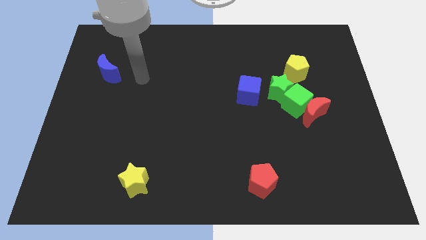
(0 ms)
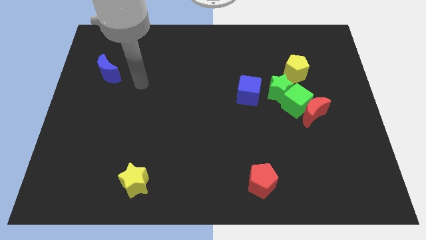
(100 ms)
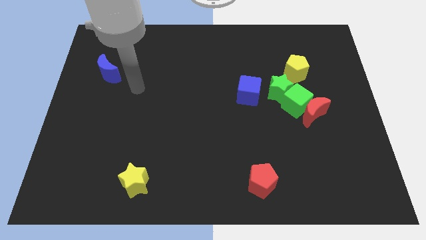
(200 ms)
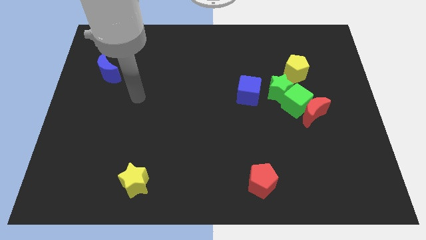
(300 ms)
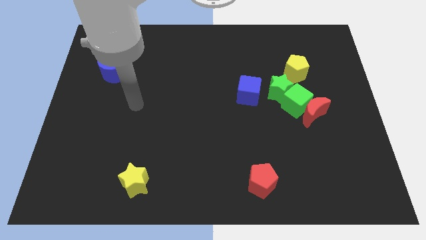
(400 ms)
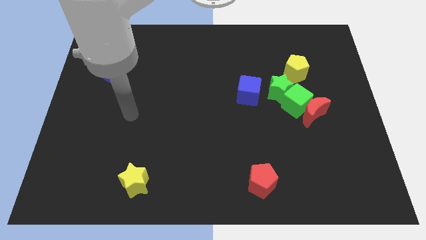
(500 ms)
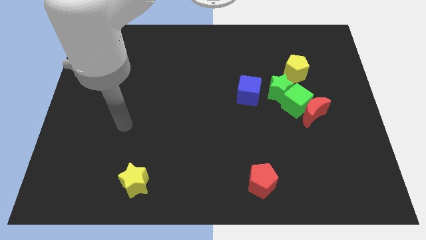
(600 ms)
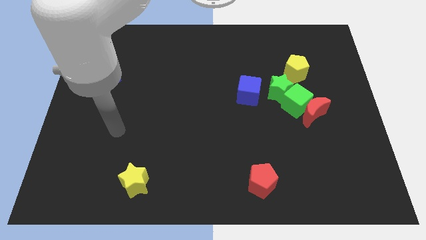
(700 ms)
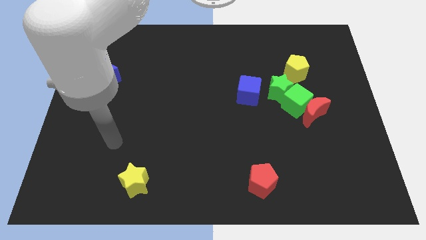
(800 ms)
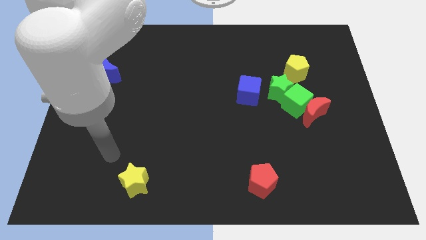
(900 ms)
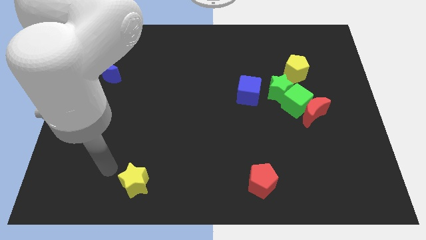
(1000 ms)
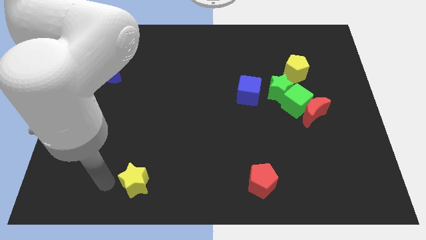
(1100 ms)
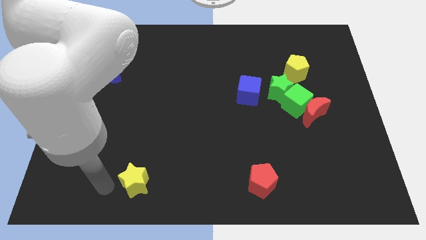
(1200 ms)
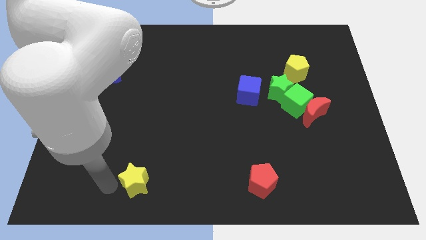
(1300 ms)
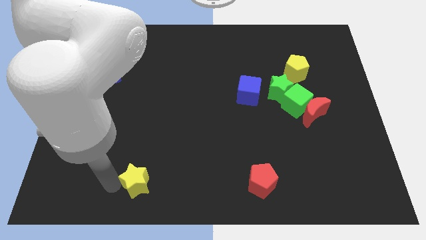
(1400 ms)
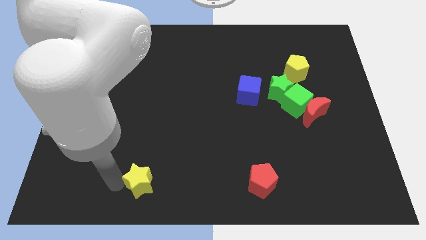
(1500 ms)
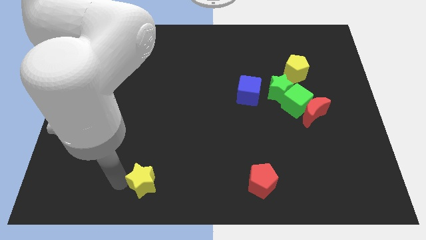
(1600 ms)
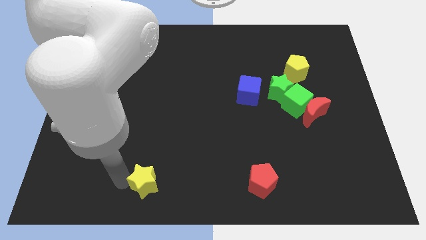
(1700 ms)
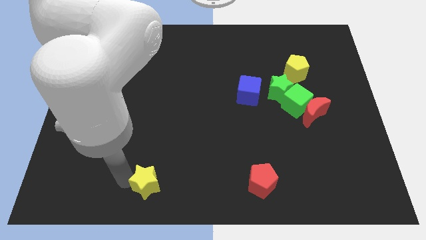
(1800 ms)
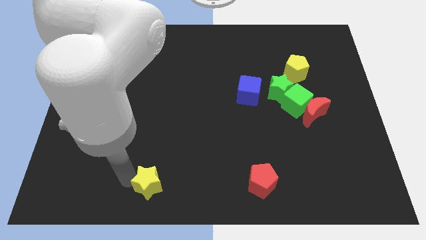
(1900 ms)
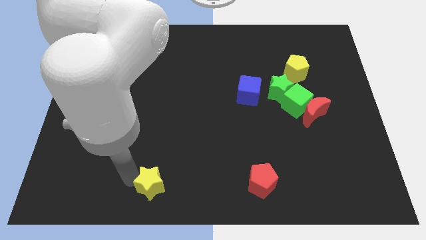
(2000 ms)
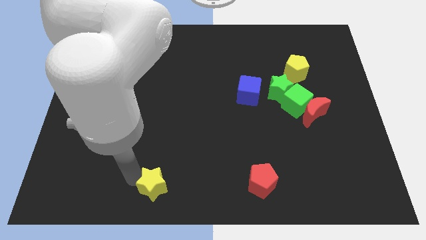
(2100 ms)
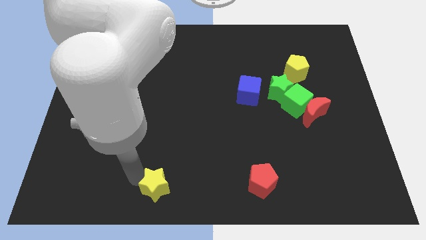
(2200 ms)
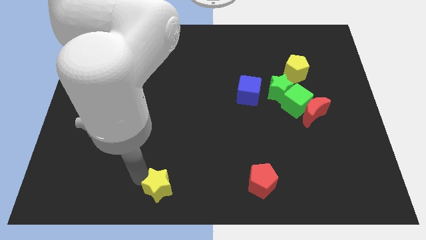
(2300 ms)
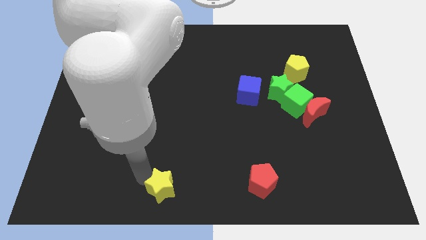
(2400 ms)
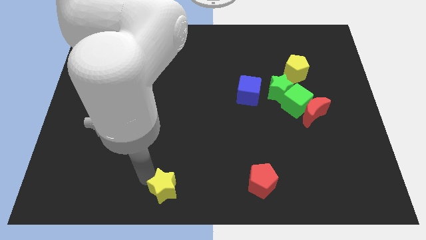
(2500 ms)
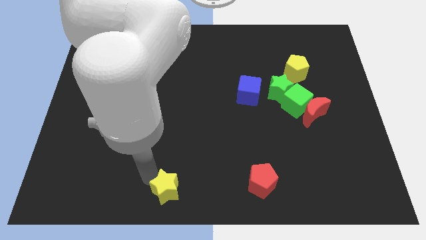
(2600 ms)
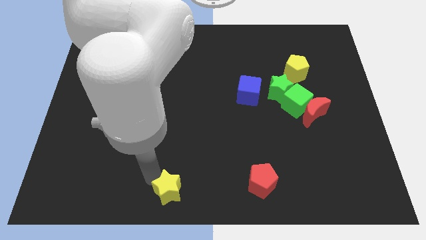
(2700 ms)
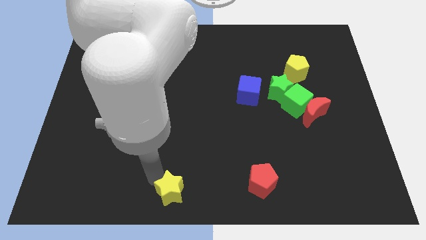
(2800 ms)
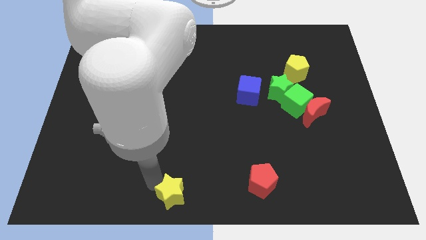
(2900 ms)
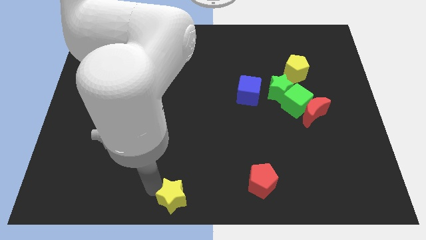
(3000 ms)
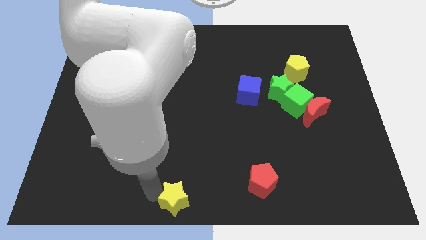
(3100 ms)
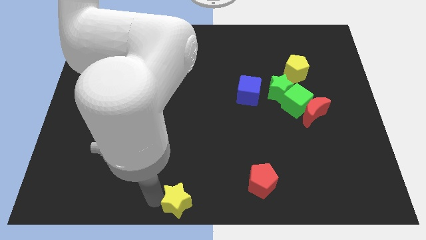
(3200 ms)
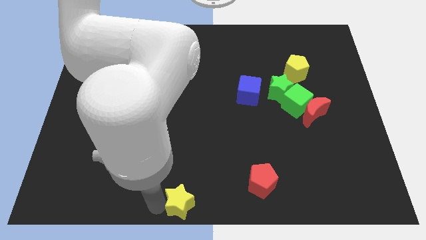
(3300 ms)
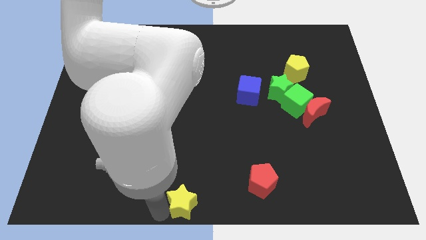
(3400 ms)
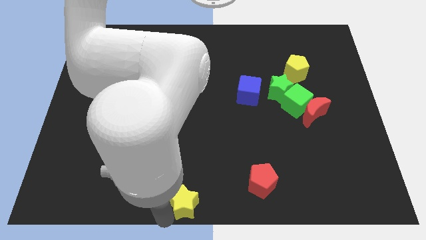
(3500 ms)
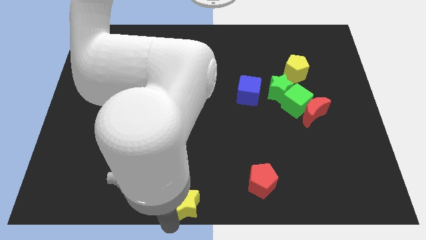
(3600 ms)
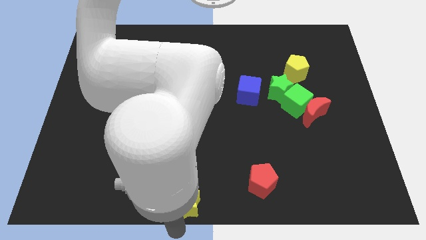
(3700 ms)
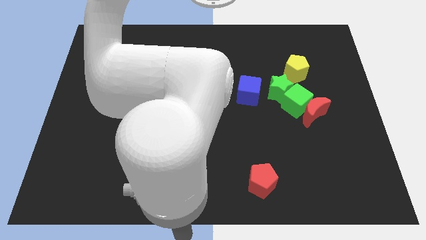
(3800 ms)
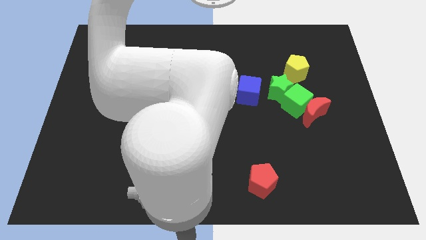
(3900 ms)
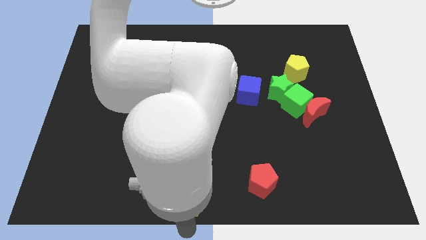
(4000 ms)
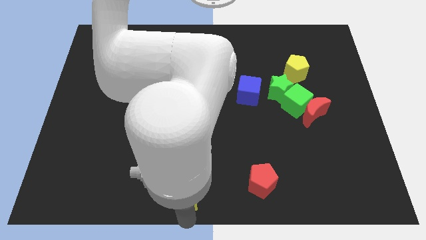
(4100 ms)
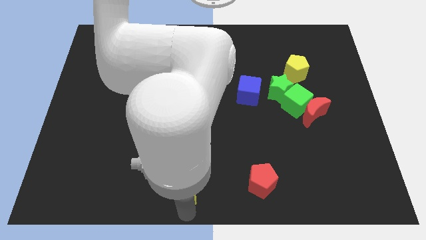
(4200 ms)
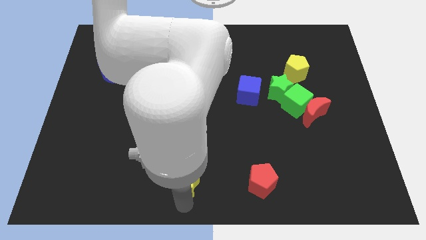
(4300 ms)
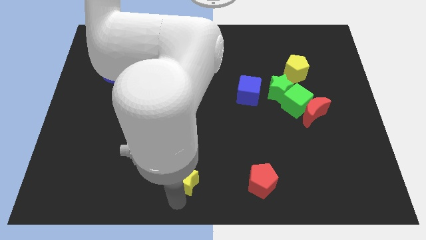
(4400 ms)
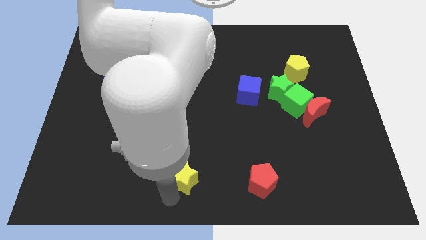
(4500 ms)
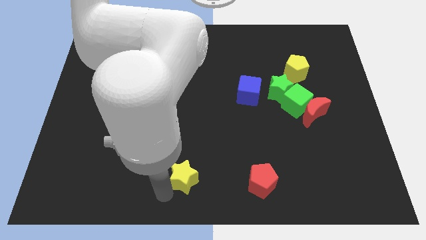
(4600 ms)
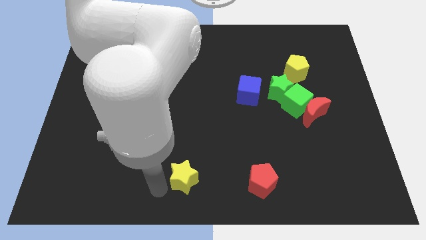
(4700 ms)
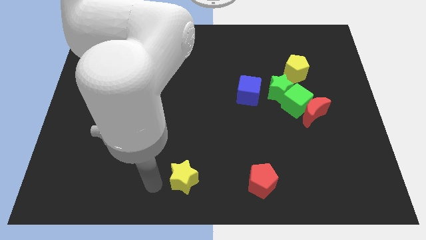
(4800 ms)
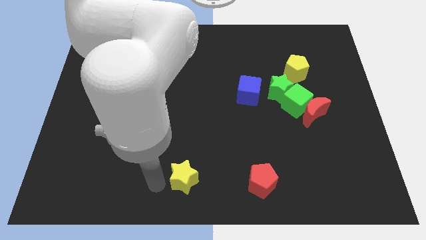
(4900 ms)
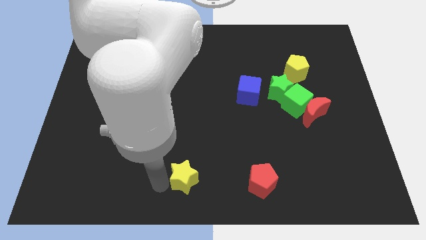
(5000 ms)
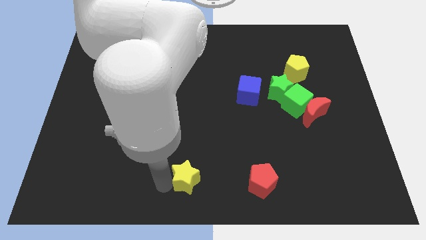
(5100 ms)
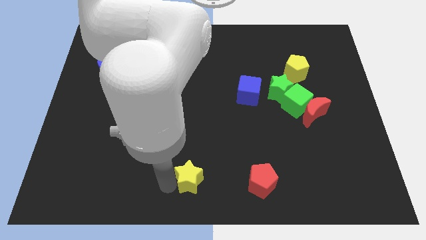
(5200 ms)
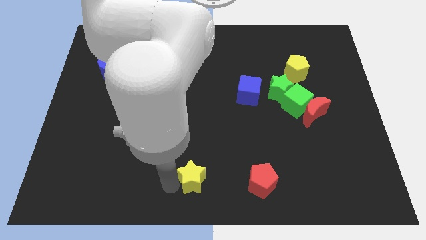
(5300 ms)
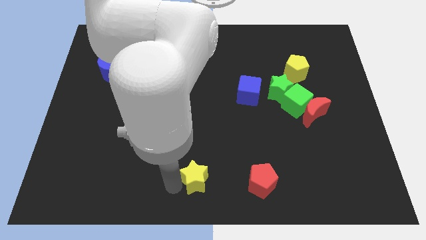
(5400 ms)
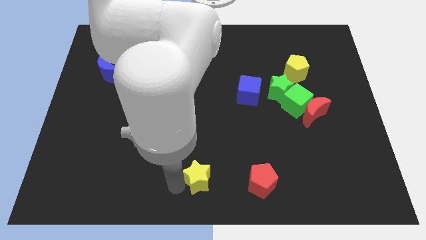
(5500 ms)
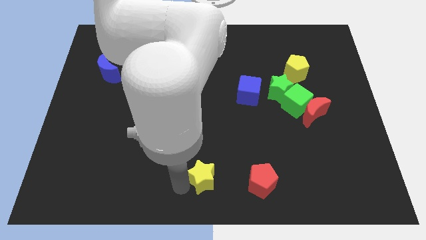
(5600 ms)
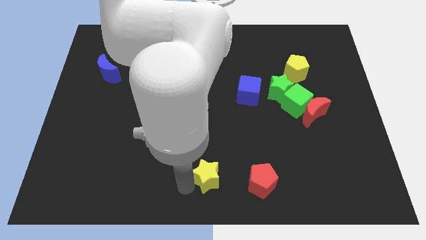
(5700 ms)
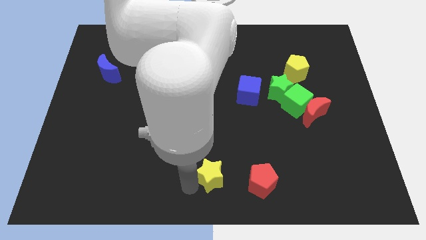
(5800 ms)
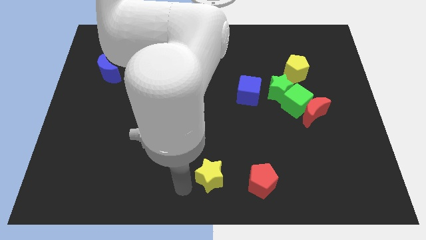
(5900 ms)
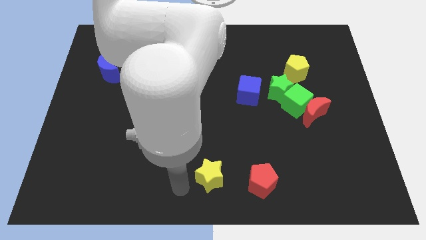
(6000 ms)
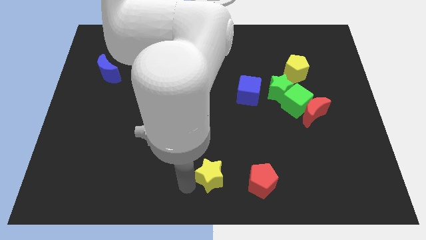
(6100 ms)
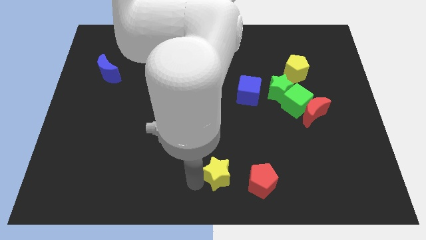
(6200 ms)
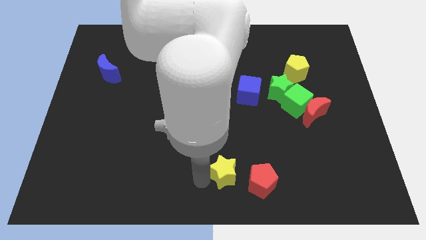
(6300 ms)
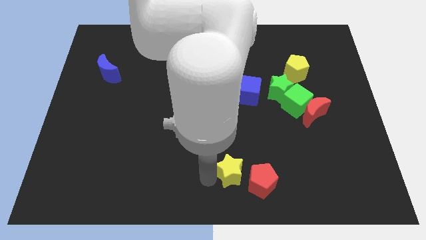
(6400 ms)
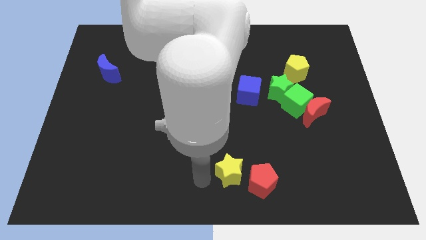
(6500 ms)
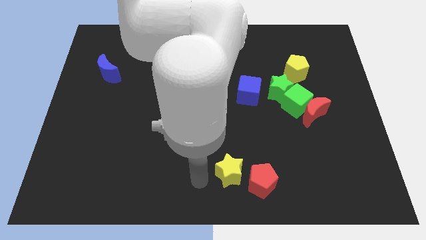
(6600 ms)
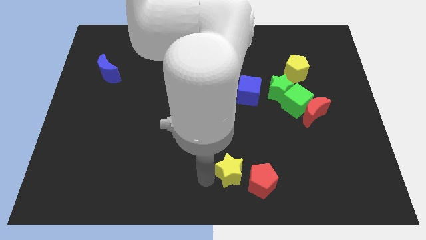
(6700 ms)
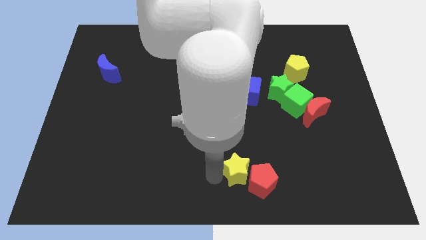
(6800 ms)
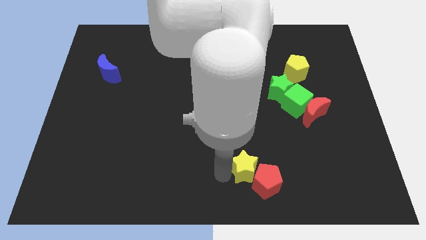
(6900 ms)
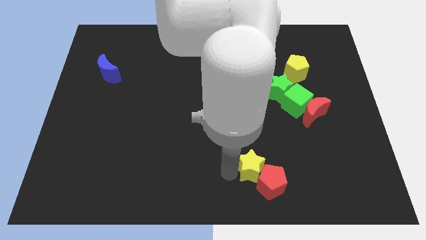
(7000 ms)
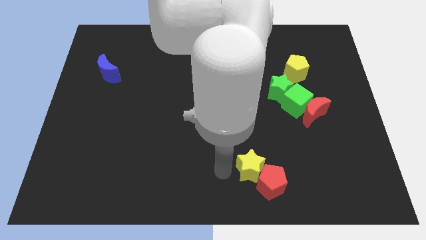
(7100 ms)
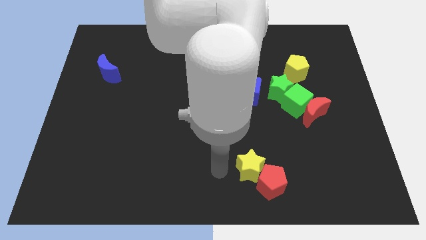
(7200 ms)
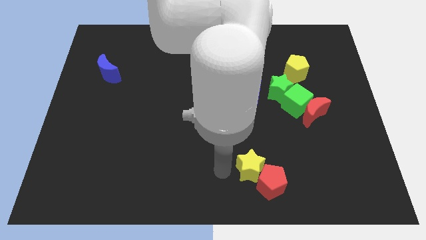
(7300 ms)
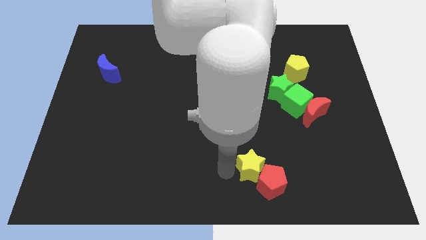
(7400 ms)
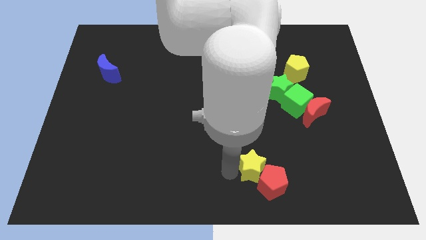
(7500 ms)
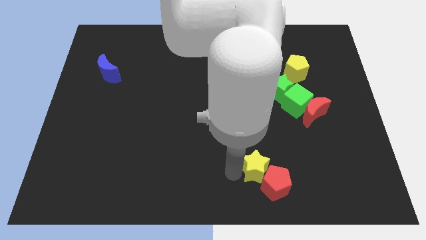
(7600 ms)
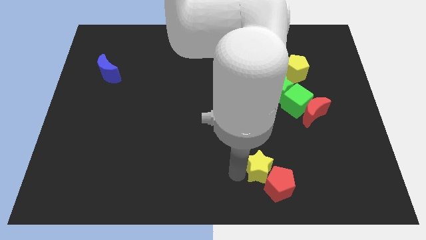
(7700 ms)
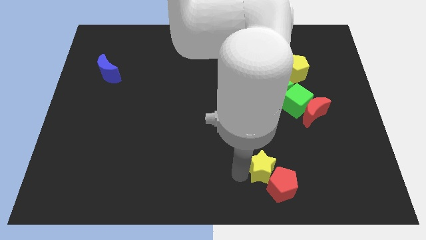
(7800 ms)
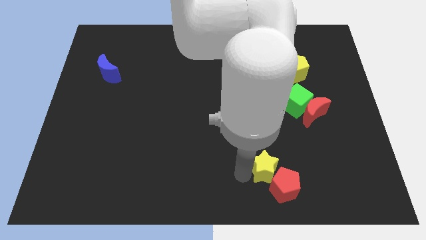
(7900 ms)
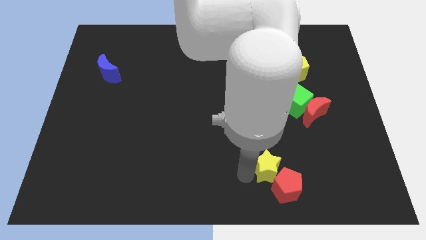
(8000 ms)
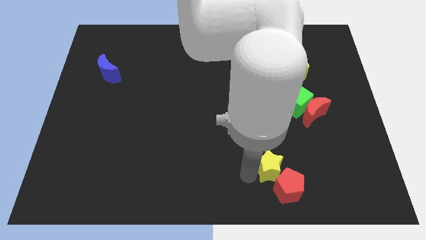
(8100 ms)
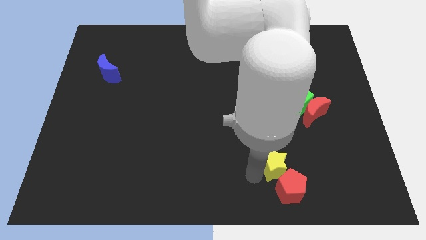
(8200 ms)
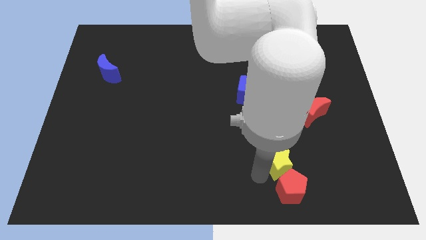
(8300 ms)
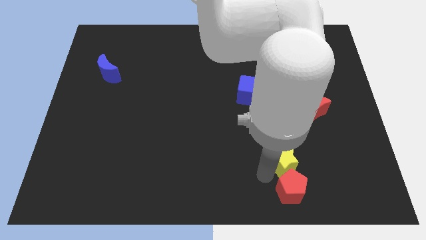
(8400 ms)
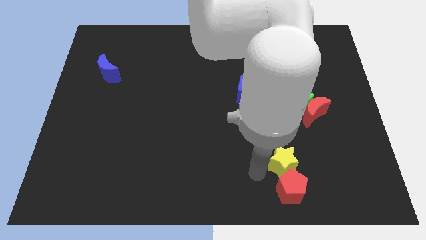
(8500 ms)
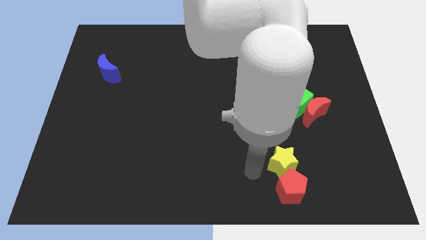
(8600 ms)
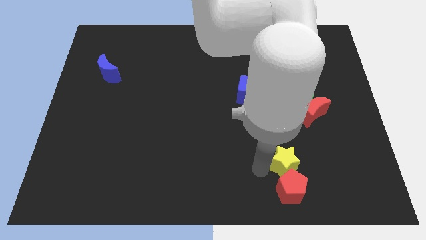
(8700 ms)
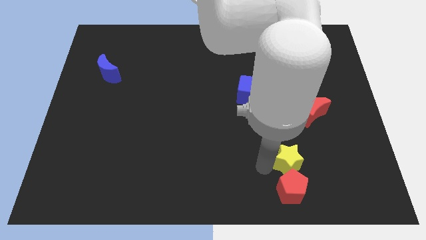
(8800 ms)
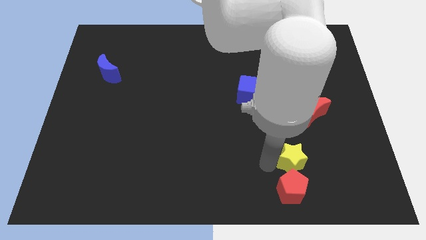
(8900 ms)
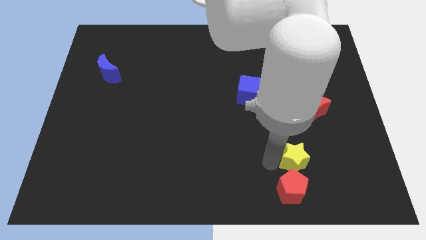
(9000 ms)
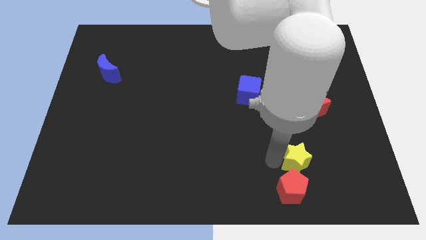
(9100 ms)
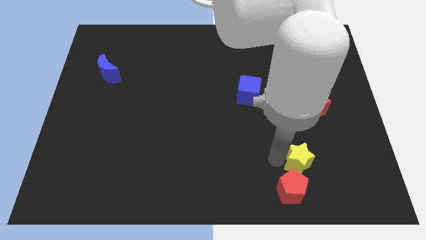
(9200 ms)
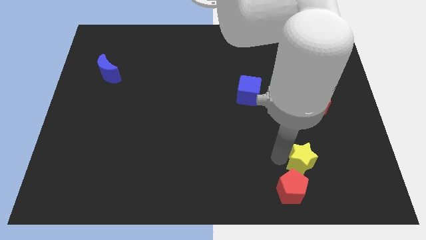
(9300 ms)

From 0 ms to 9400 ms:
slide the yellow star to the bottom of the red moon
